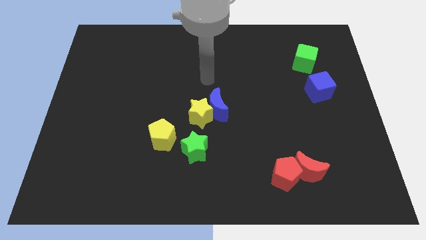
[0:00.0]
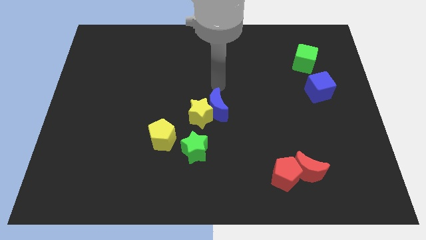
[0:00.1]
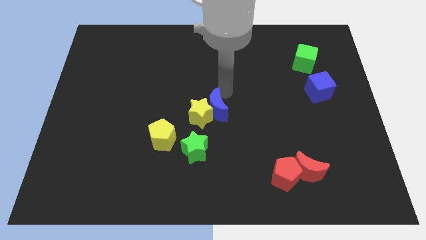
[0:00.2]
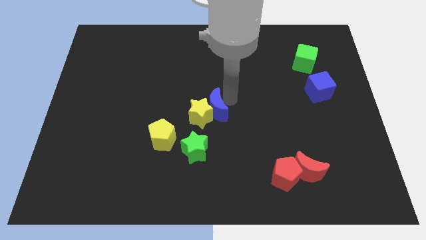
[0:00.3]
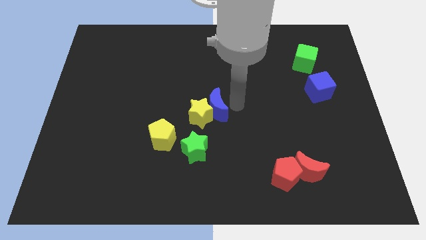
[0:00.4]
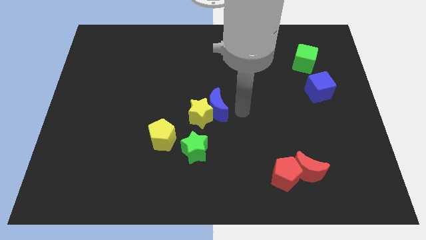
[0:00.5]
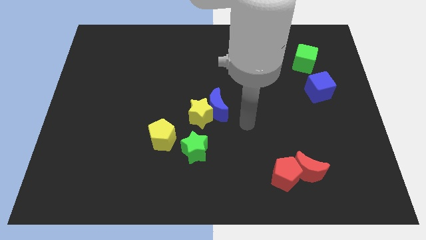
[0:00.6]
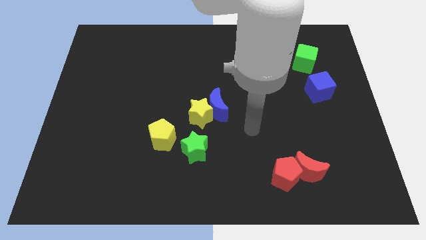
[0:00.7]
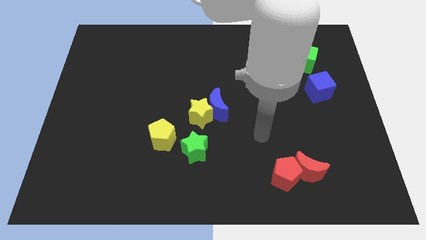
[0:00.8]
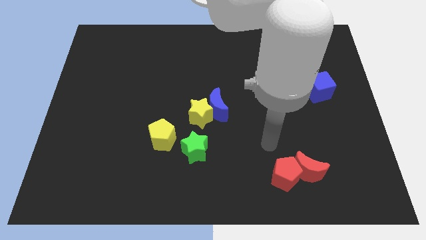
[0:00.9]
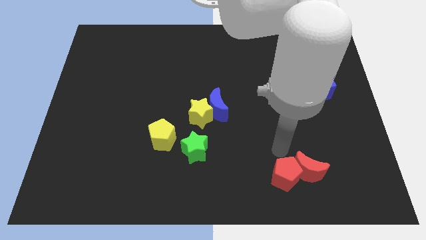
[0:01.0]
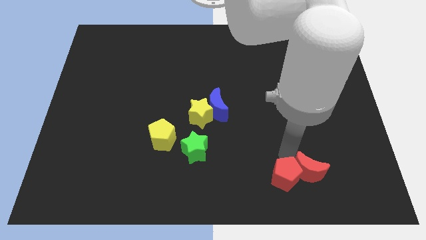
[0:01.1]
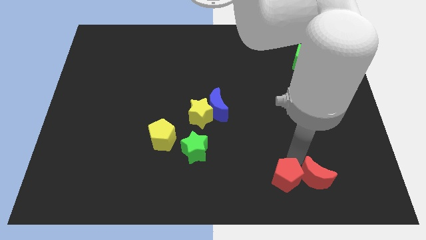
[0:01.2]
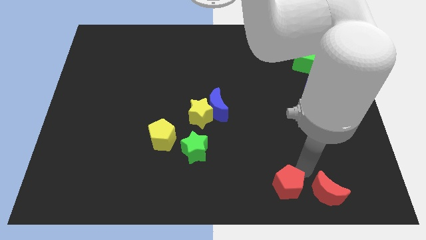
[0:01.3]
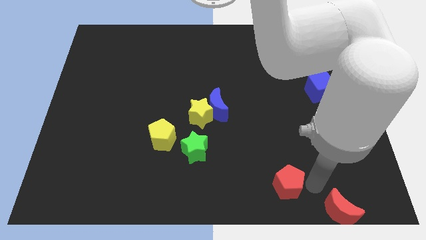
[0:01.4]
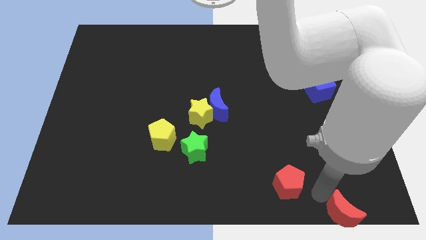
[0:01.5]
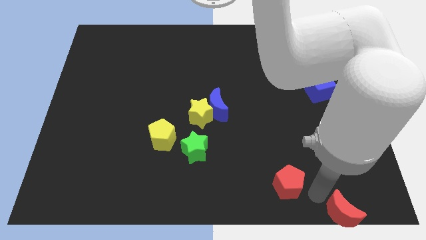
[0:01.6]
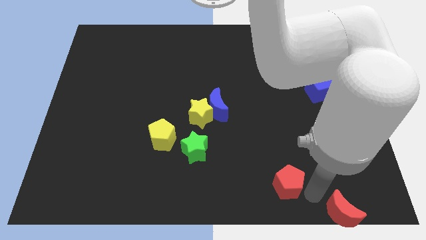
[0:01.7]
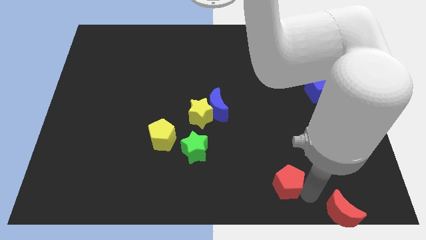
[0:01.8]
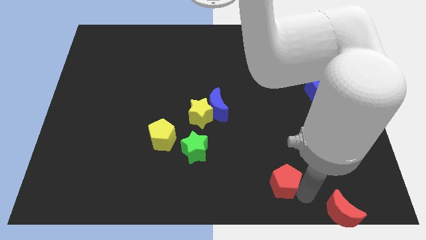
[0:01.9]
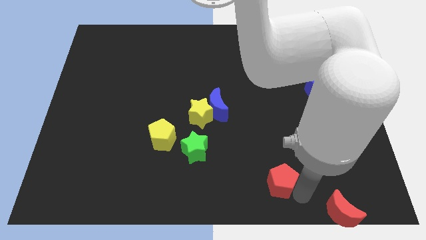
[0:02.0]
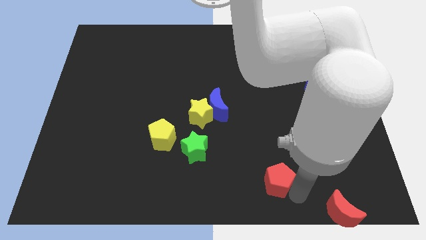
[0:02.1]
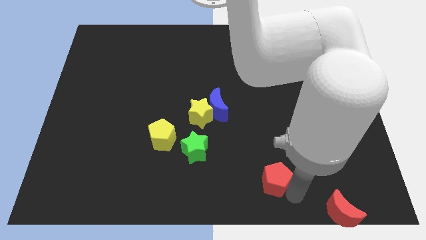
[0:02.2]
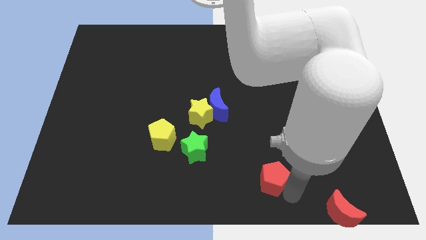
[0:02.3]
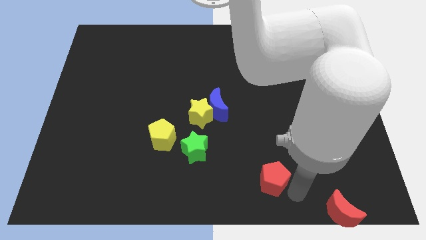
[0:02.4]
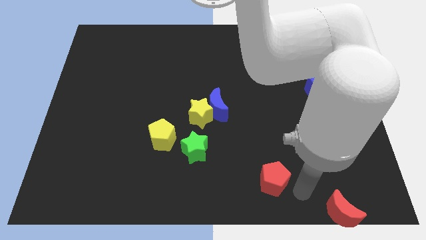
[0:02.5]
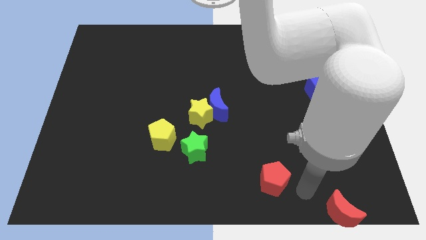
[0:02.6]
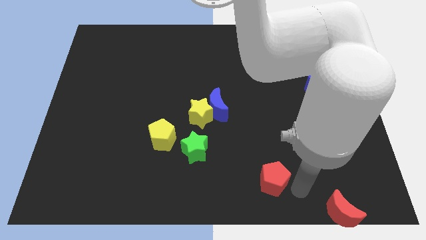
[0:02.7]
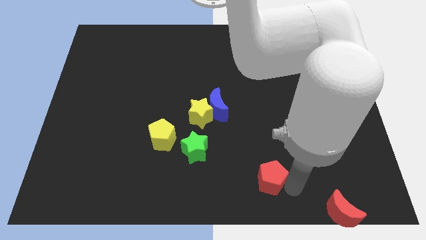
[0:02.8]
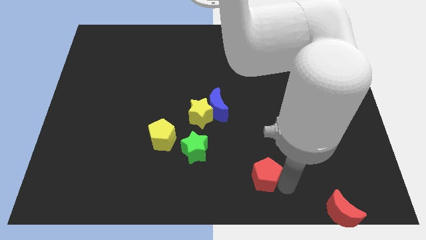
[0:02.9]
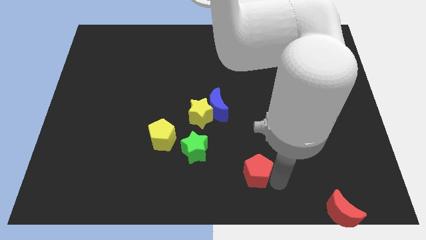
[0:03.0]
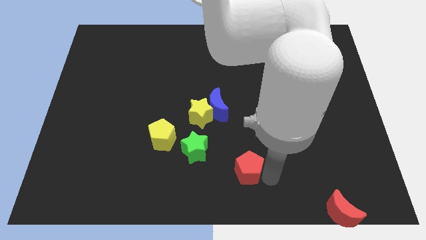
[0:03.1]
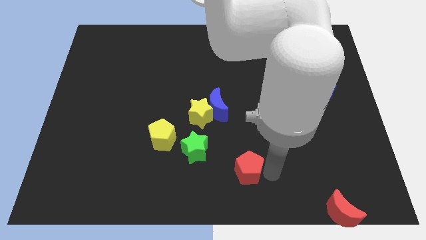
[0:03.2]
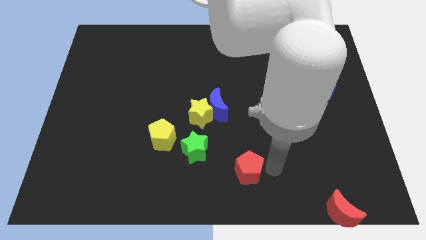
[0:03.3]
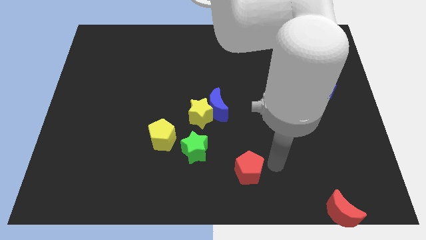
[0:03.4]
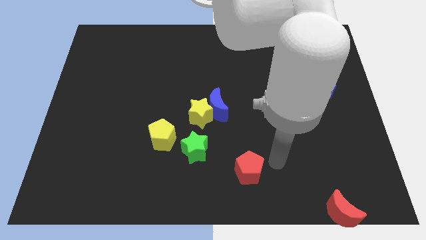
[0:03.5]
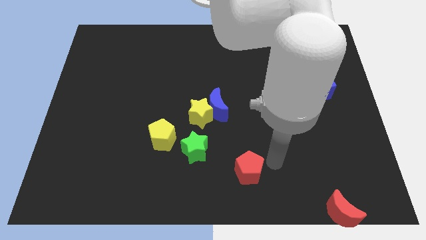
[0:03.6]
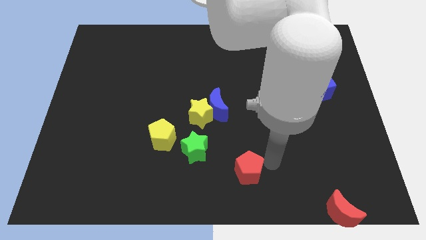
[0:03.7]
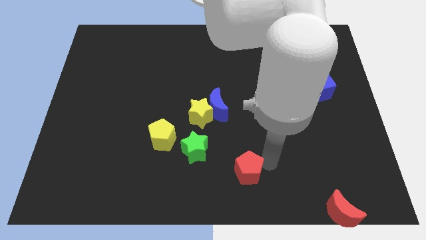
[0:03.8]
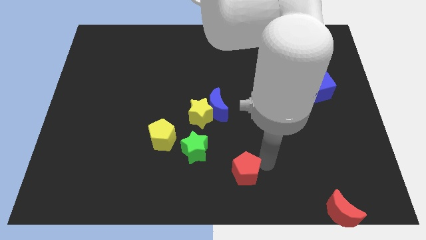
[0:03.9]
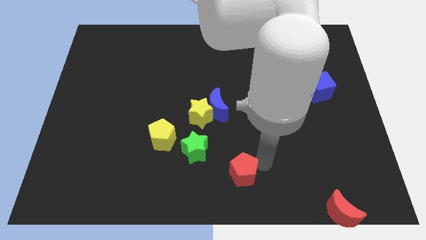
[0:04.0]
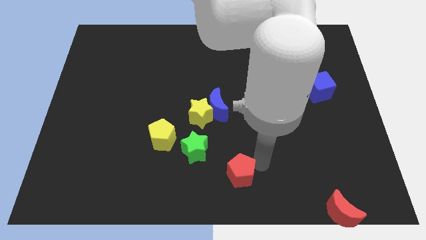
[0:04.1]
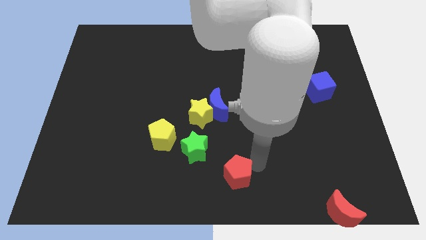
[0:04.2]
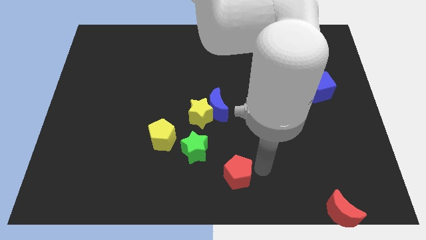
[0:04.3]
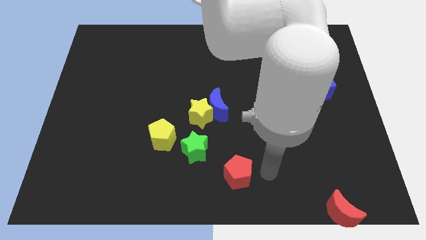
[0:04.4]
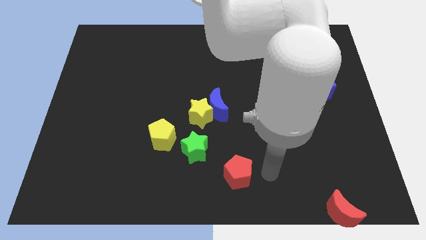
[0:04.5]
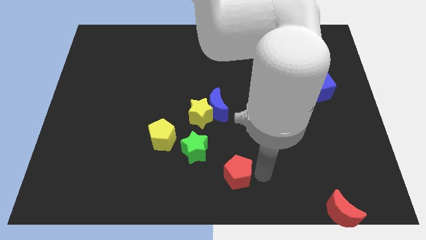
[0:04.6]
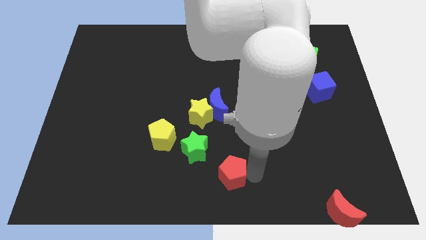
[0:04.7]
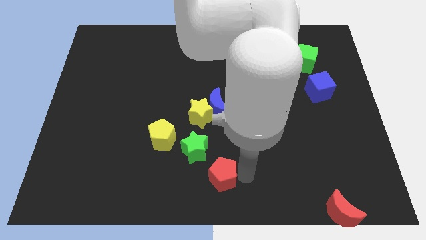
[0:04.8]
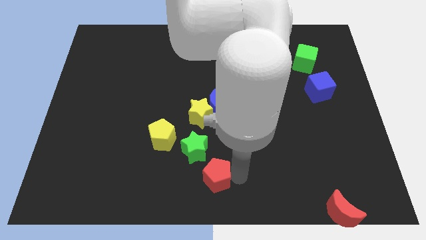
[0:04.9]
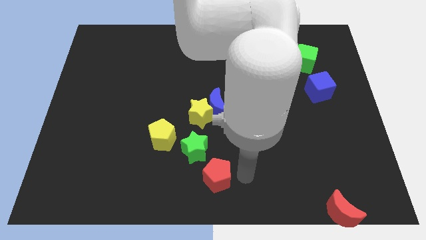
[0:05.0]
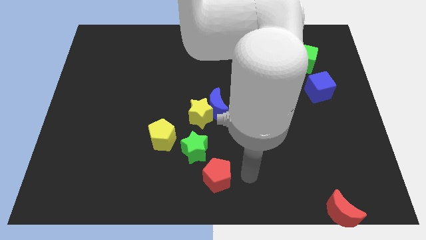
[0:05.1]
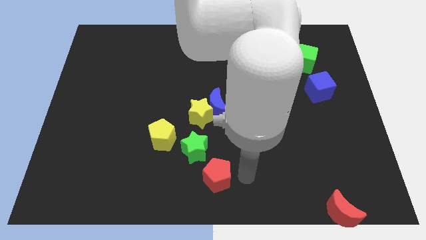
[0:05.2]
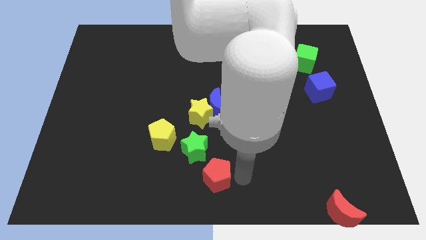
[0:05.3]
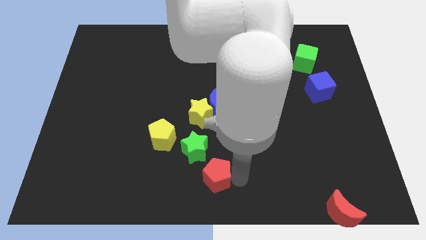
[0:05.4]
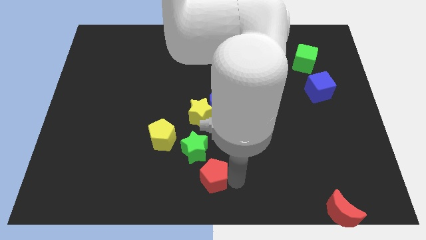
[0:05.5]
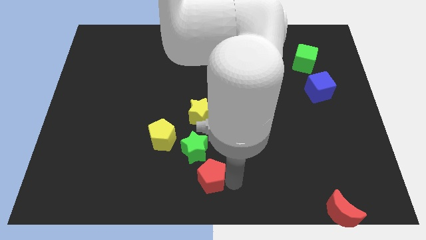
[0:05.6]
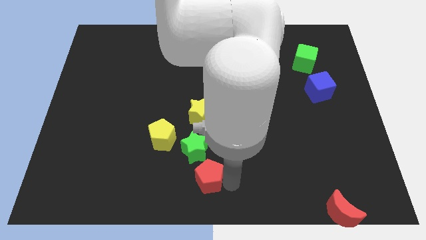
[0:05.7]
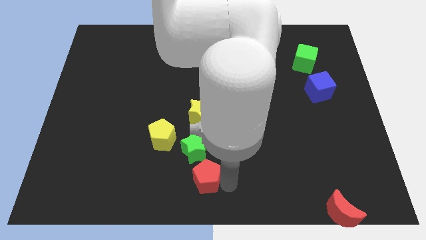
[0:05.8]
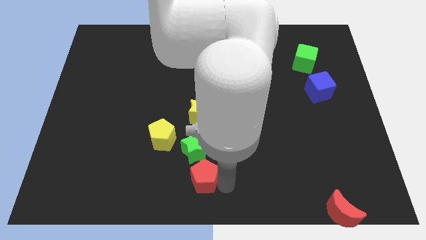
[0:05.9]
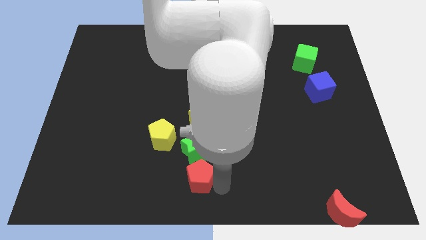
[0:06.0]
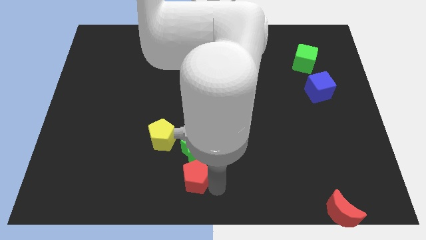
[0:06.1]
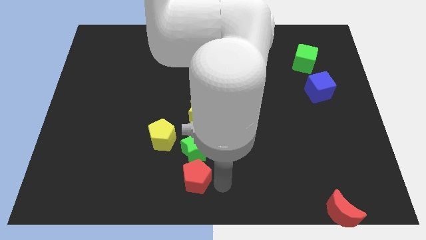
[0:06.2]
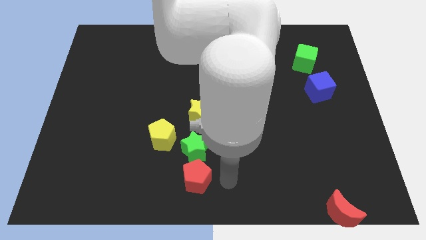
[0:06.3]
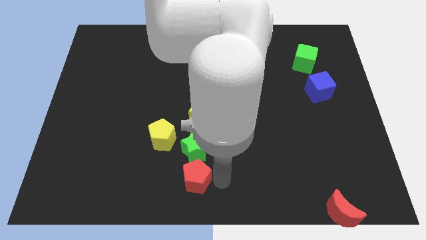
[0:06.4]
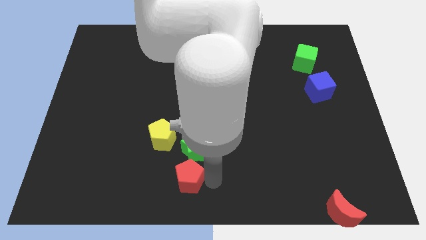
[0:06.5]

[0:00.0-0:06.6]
slide the red pentagon to the left

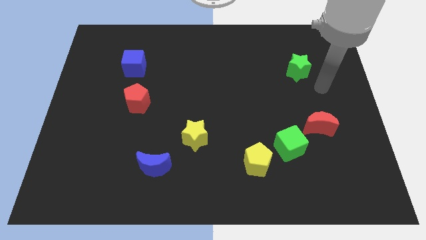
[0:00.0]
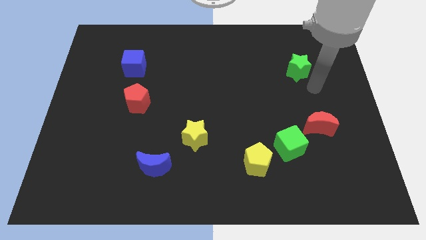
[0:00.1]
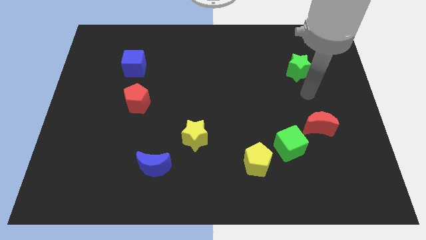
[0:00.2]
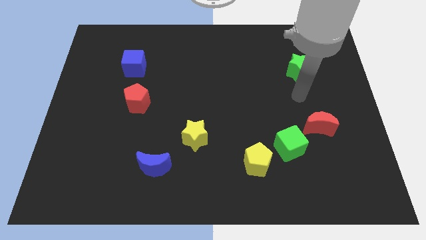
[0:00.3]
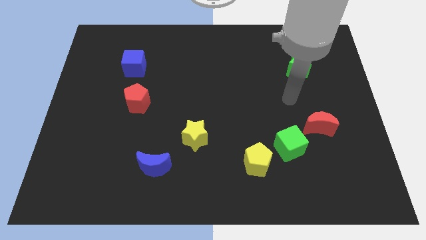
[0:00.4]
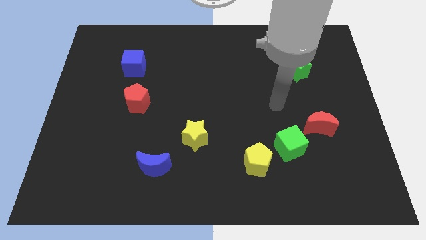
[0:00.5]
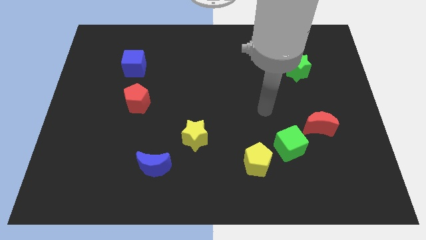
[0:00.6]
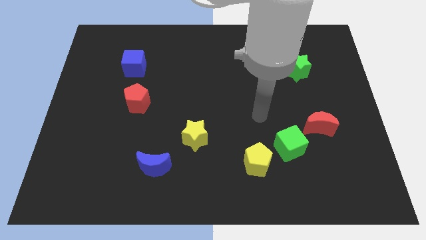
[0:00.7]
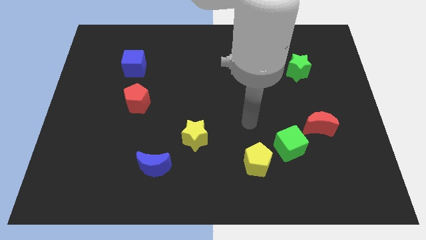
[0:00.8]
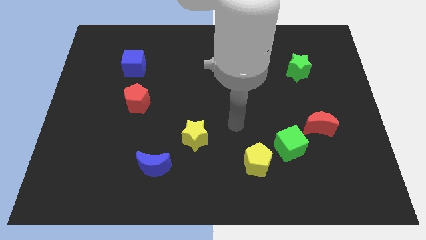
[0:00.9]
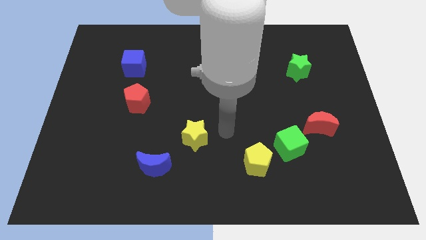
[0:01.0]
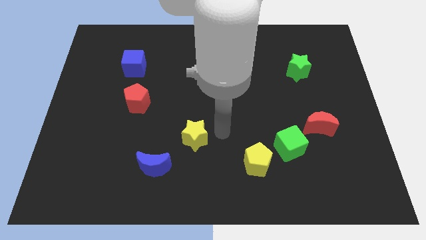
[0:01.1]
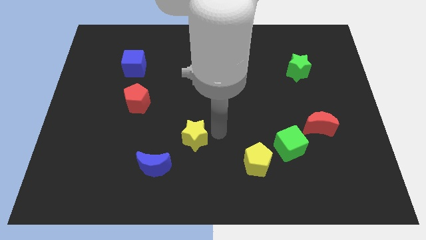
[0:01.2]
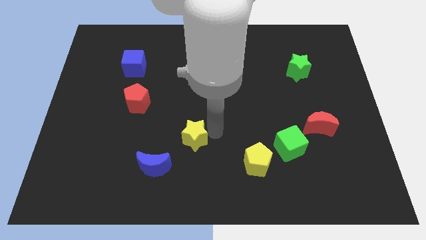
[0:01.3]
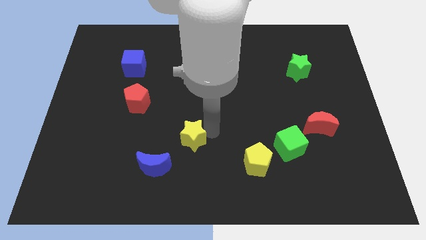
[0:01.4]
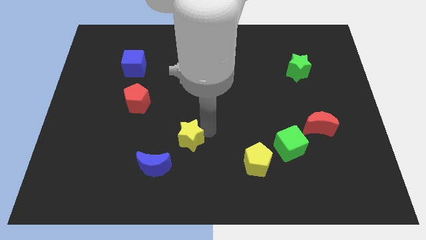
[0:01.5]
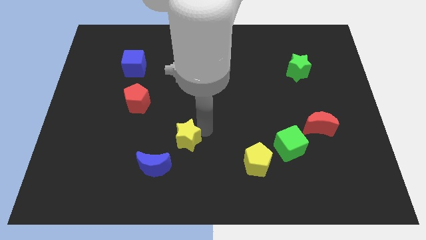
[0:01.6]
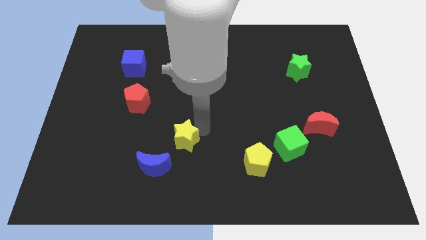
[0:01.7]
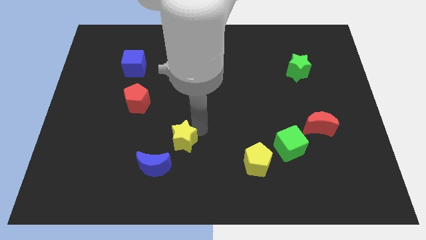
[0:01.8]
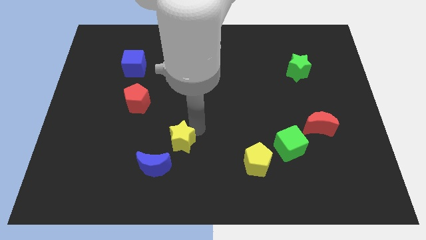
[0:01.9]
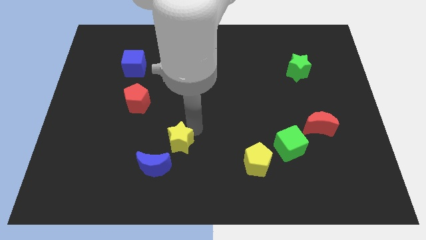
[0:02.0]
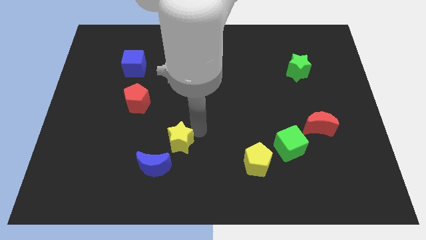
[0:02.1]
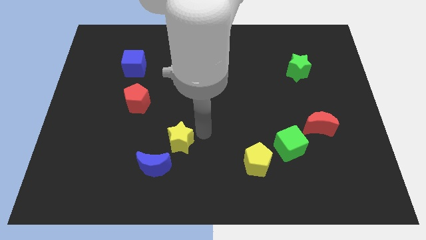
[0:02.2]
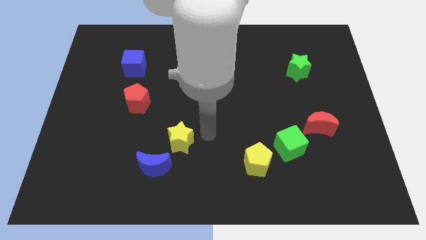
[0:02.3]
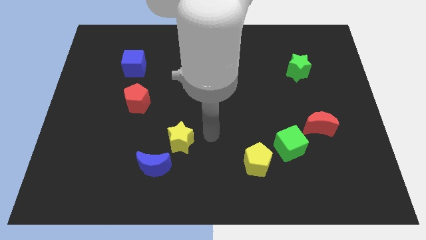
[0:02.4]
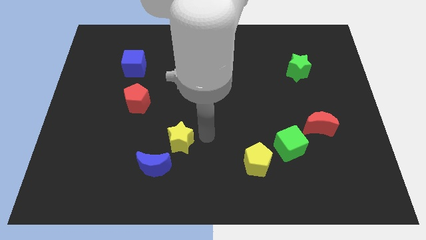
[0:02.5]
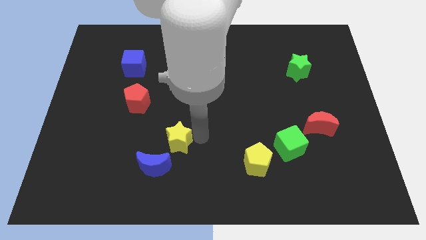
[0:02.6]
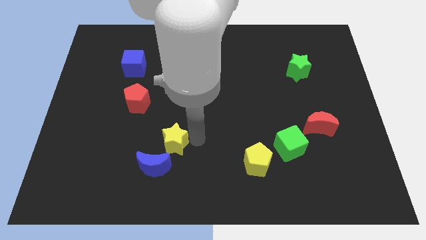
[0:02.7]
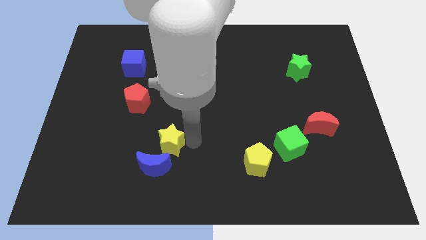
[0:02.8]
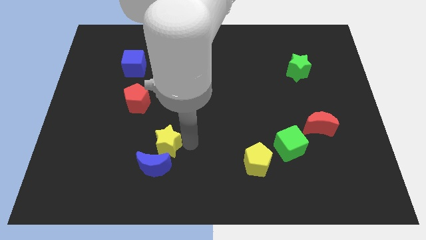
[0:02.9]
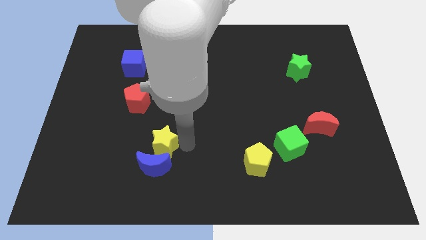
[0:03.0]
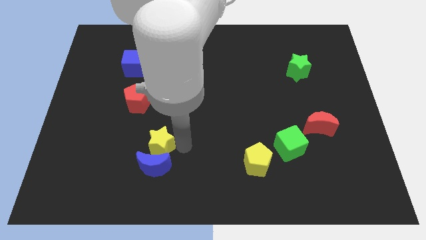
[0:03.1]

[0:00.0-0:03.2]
push the yellow star a little to the left
